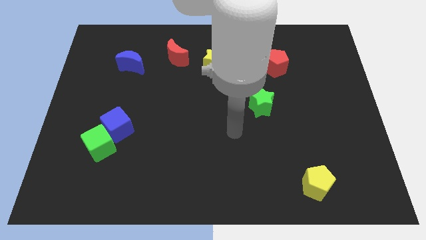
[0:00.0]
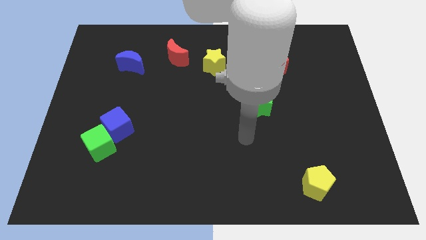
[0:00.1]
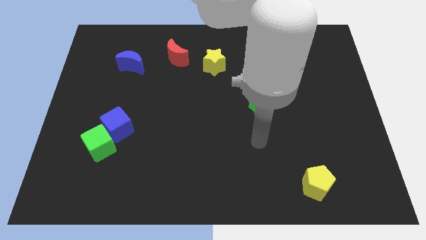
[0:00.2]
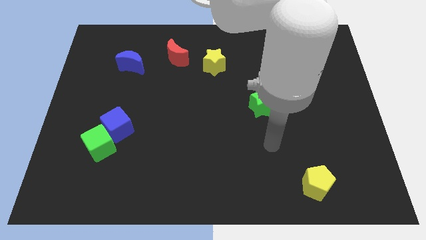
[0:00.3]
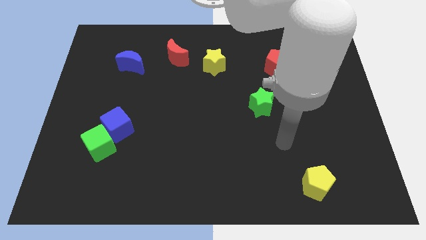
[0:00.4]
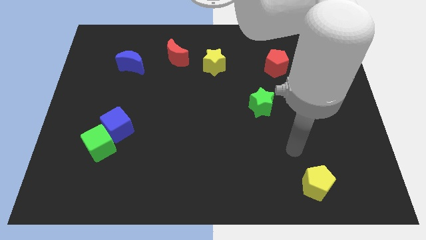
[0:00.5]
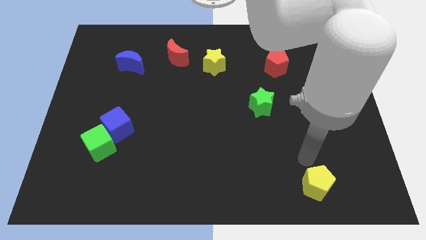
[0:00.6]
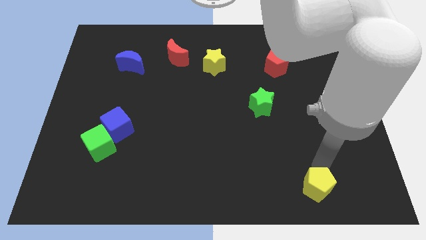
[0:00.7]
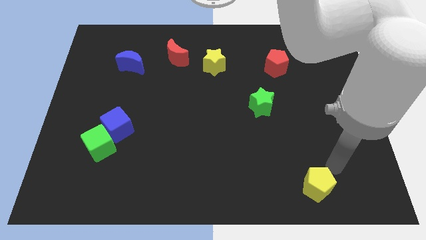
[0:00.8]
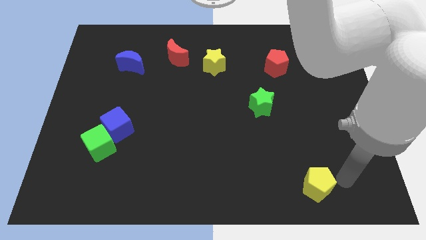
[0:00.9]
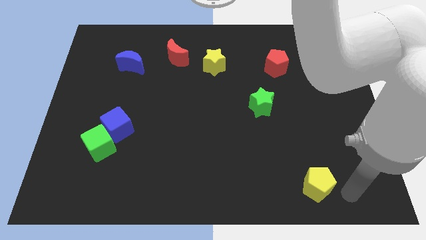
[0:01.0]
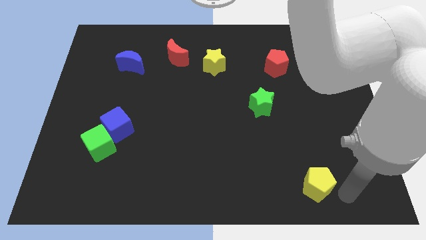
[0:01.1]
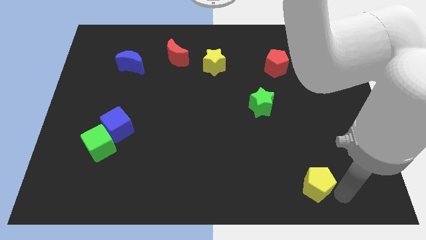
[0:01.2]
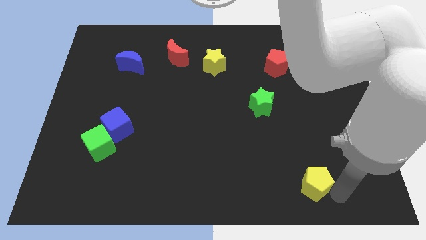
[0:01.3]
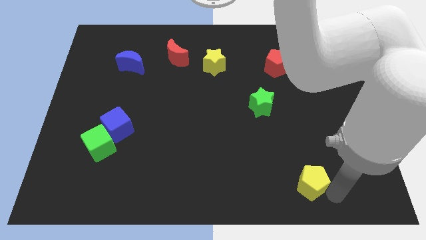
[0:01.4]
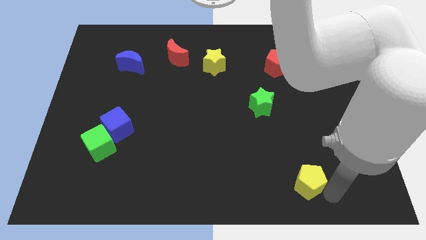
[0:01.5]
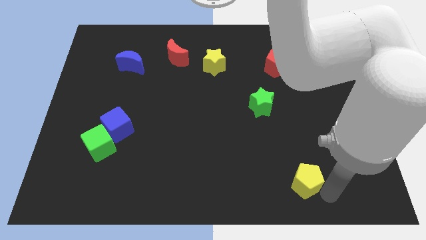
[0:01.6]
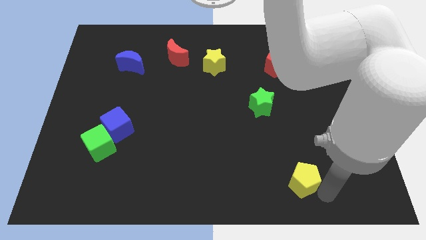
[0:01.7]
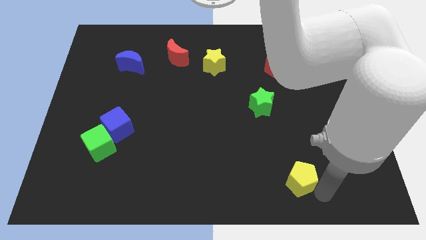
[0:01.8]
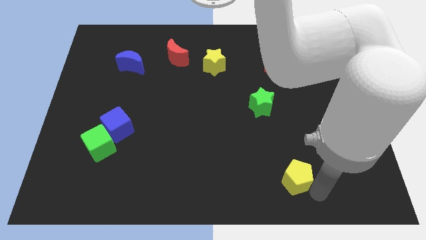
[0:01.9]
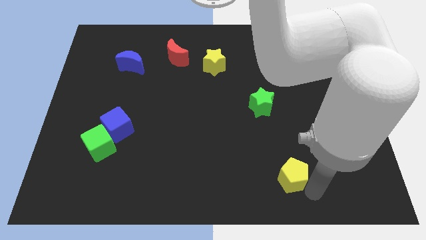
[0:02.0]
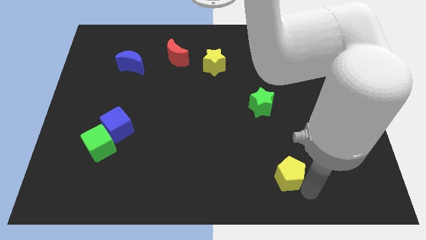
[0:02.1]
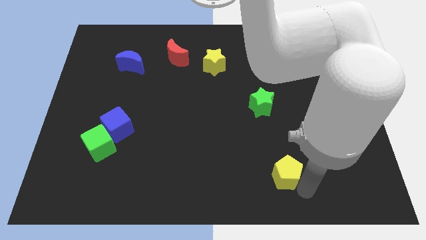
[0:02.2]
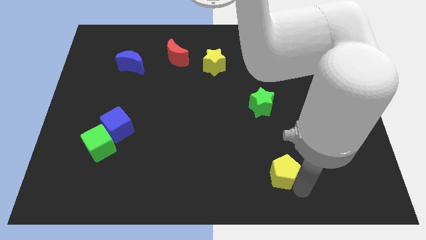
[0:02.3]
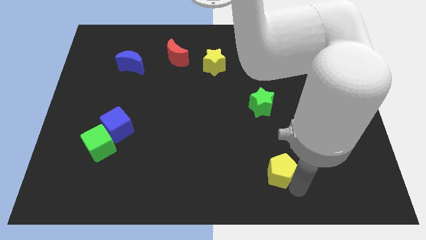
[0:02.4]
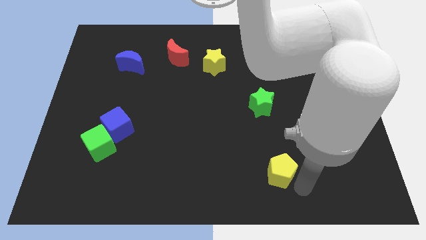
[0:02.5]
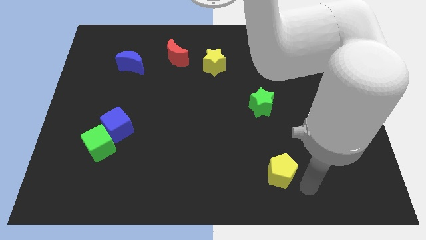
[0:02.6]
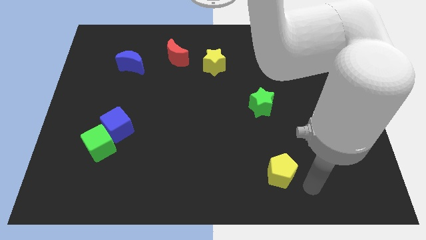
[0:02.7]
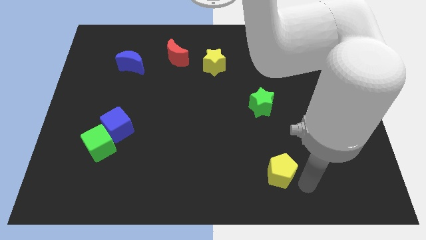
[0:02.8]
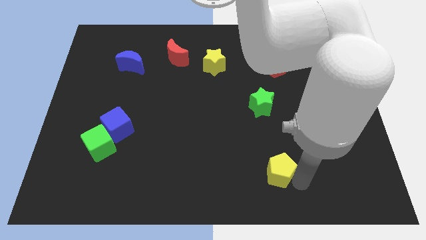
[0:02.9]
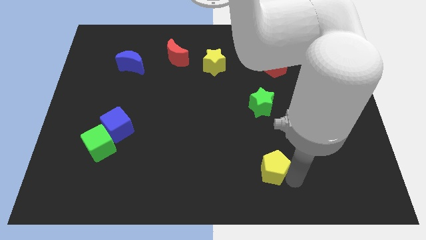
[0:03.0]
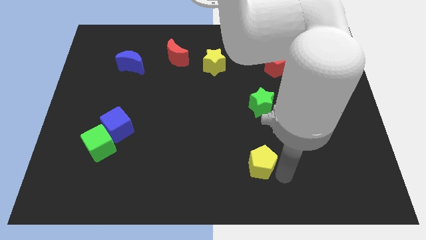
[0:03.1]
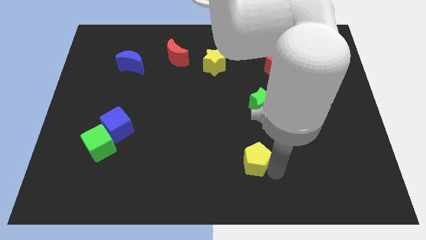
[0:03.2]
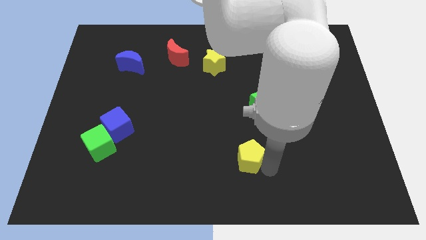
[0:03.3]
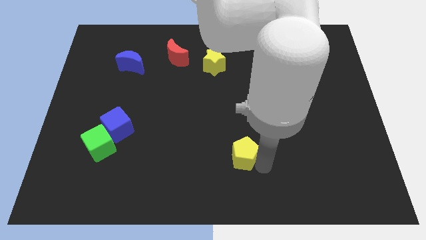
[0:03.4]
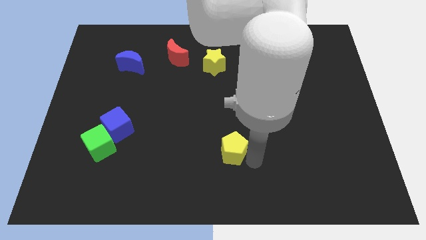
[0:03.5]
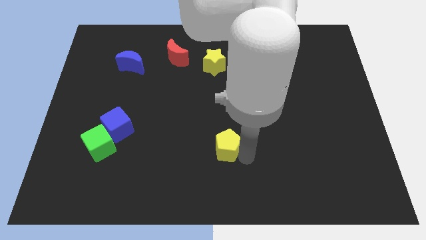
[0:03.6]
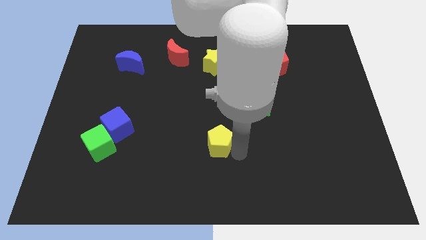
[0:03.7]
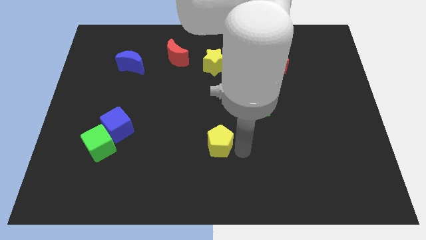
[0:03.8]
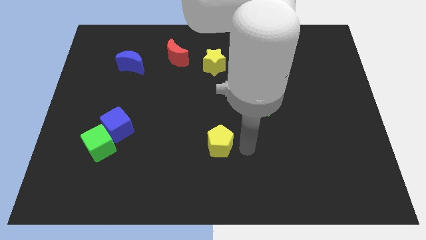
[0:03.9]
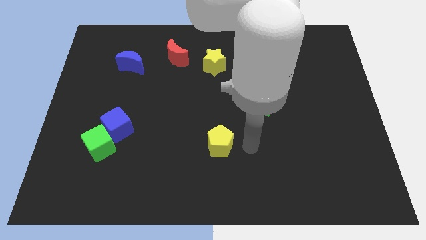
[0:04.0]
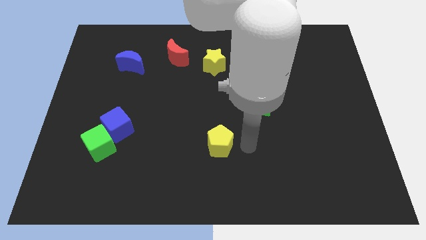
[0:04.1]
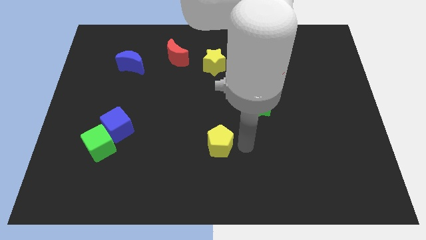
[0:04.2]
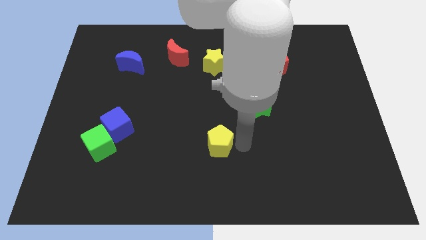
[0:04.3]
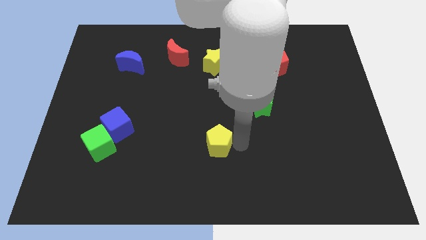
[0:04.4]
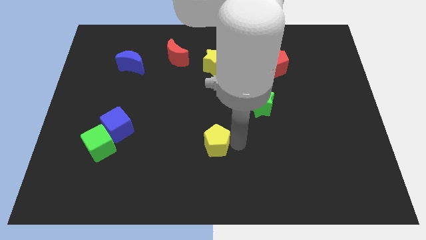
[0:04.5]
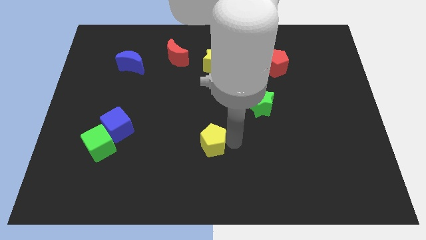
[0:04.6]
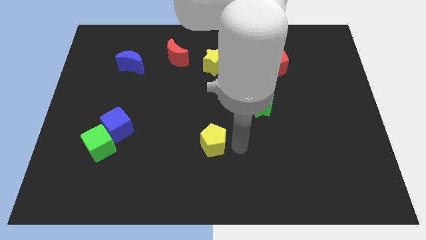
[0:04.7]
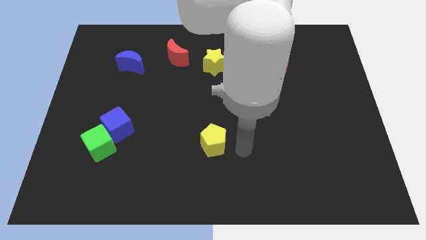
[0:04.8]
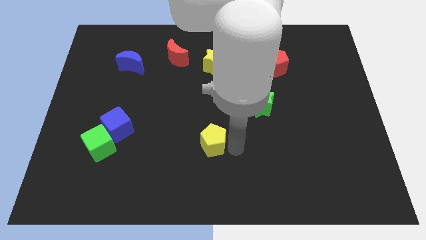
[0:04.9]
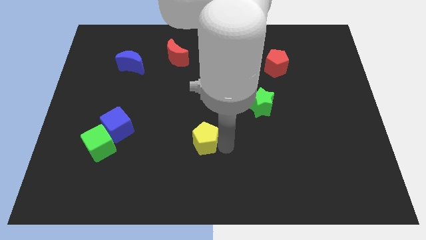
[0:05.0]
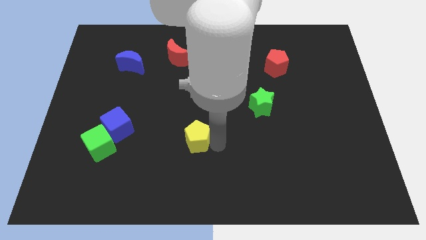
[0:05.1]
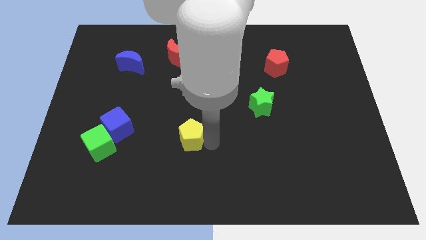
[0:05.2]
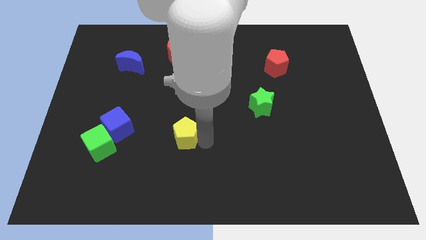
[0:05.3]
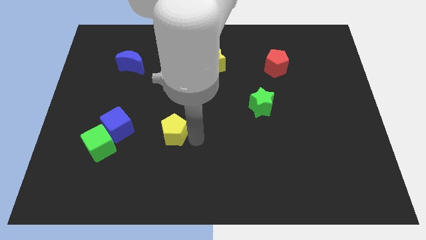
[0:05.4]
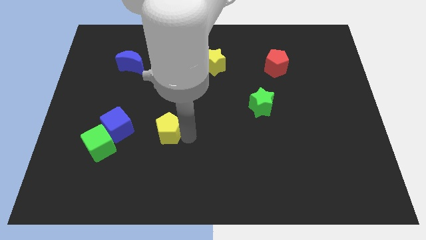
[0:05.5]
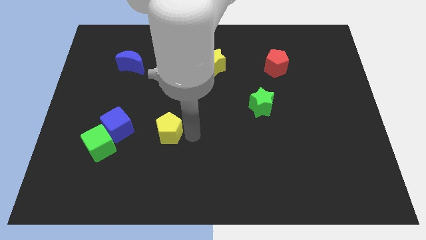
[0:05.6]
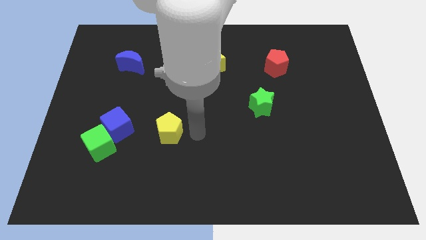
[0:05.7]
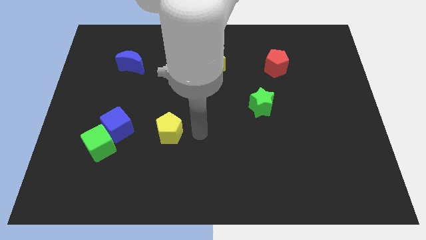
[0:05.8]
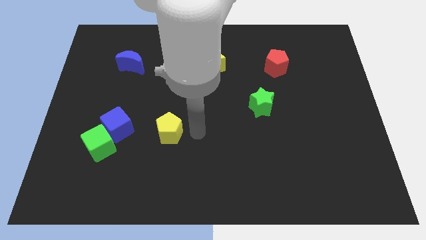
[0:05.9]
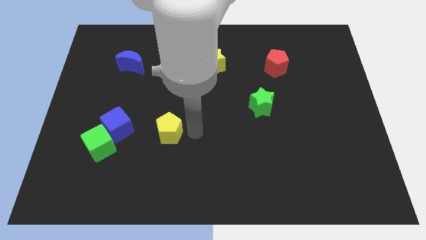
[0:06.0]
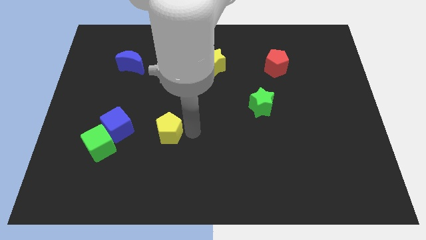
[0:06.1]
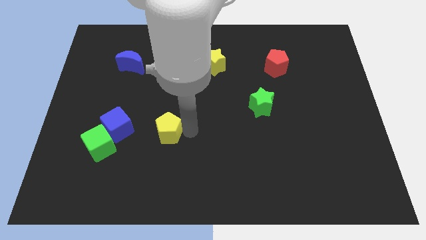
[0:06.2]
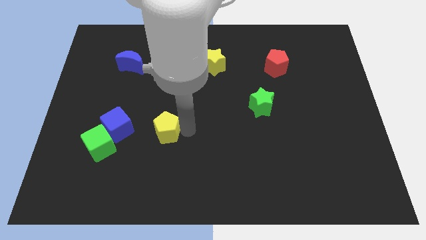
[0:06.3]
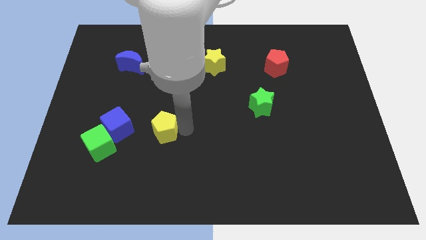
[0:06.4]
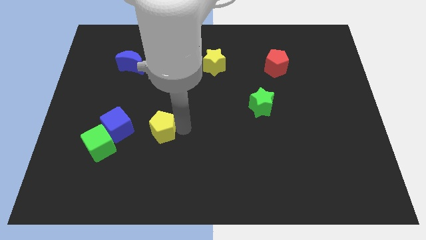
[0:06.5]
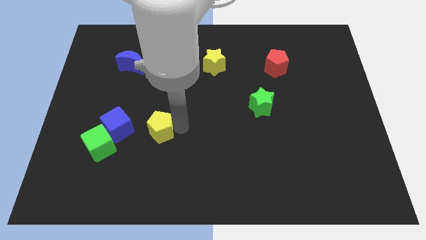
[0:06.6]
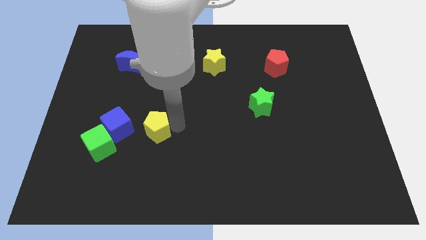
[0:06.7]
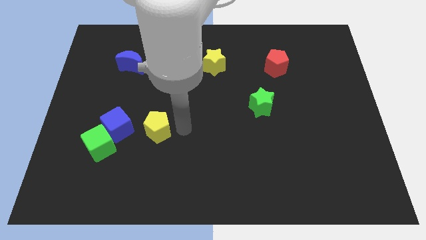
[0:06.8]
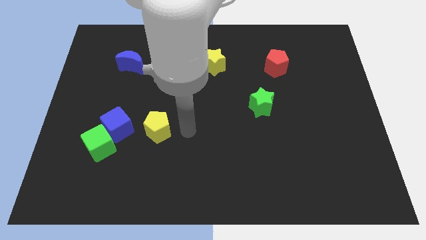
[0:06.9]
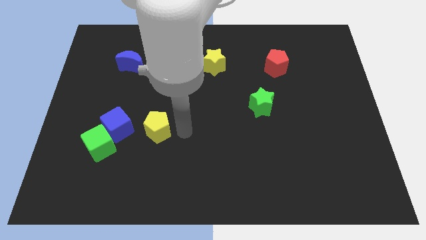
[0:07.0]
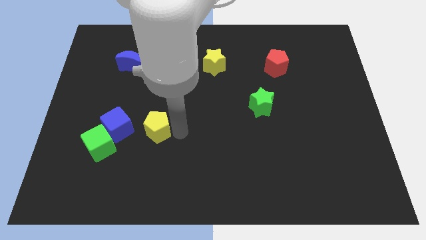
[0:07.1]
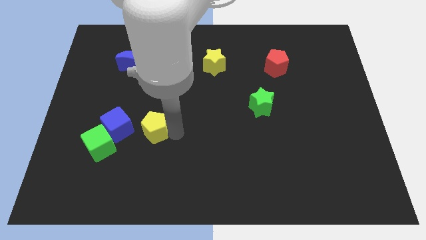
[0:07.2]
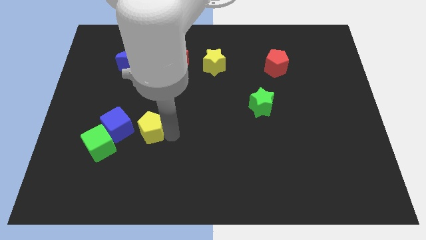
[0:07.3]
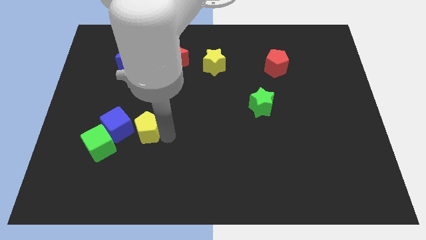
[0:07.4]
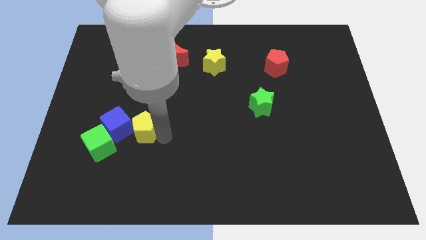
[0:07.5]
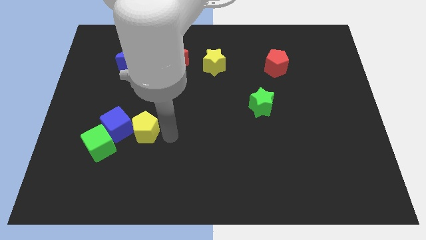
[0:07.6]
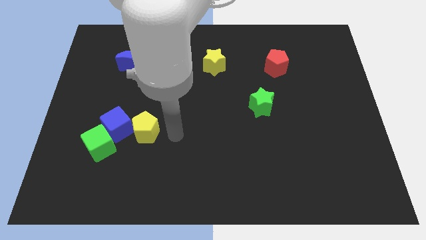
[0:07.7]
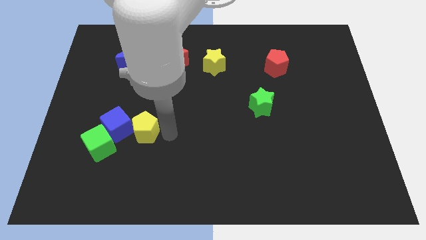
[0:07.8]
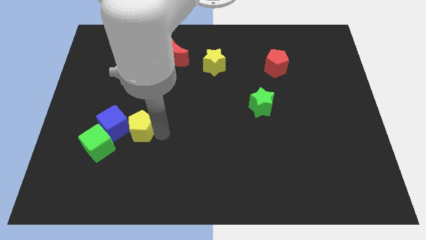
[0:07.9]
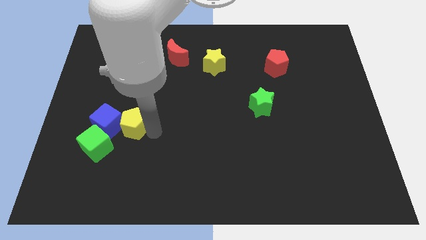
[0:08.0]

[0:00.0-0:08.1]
slide the yellow pentagon close to the blue cube
